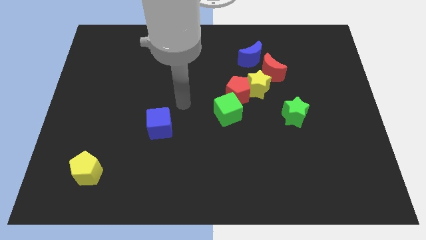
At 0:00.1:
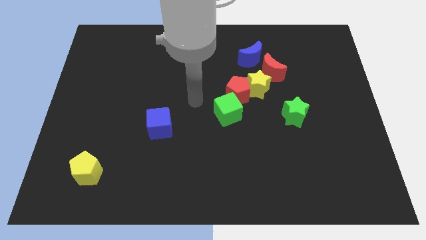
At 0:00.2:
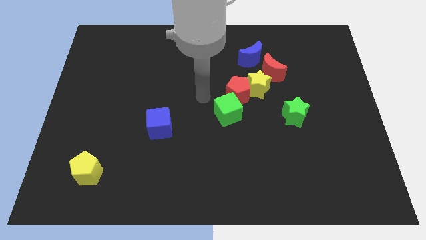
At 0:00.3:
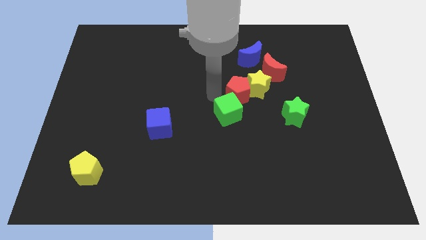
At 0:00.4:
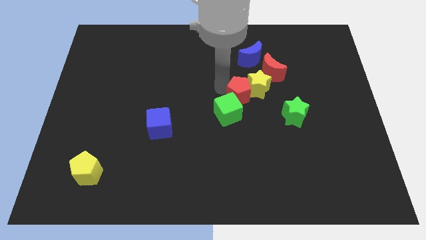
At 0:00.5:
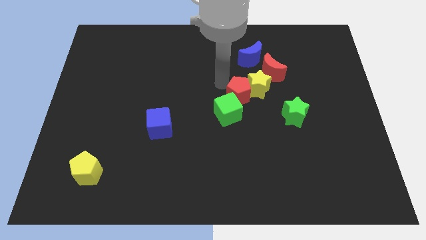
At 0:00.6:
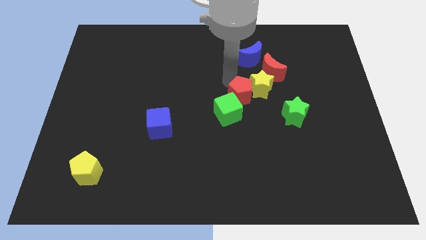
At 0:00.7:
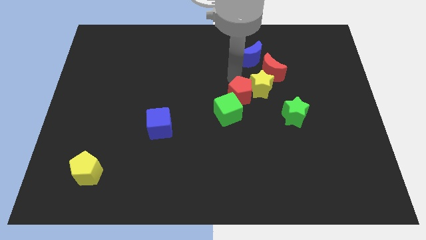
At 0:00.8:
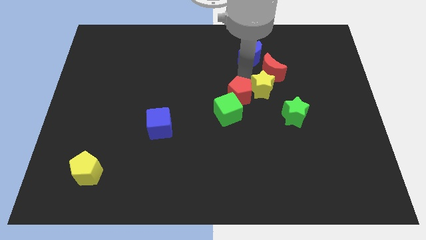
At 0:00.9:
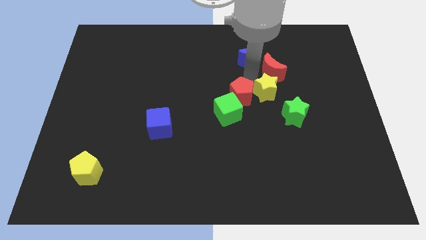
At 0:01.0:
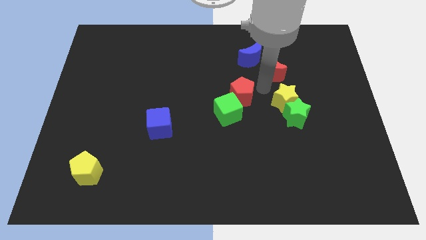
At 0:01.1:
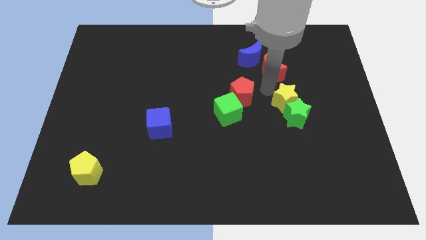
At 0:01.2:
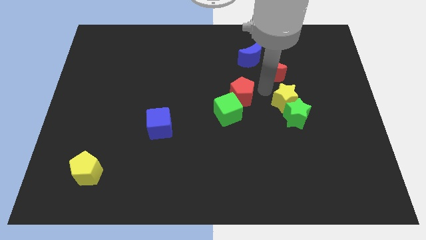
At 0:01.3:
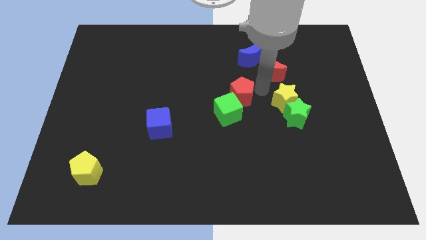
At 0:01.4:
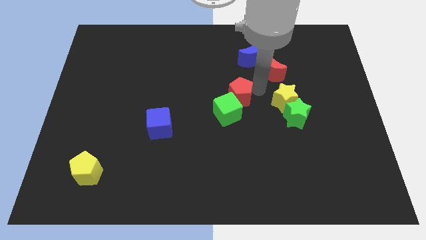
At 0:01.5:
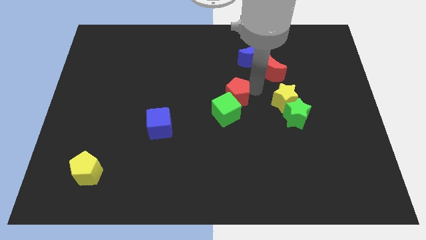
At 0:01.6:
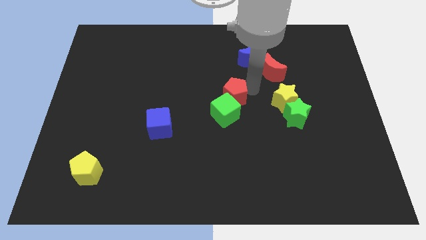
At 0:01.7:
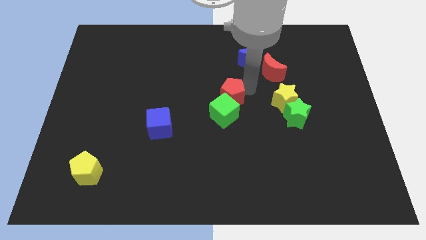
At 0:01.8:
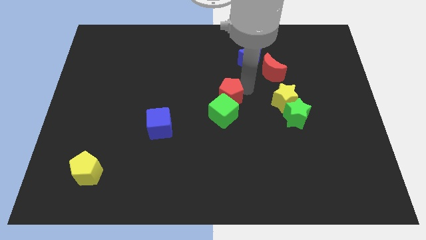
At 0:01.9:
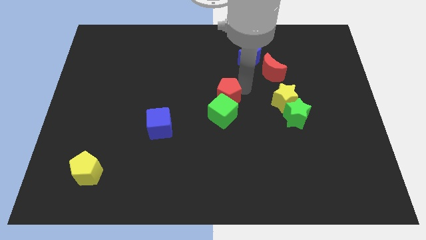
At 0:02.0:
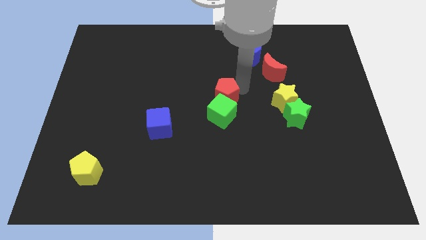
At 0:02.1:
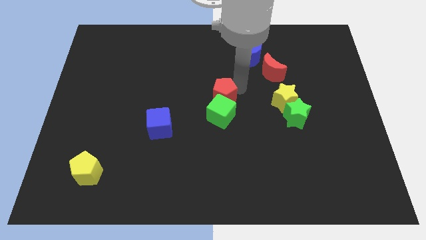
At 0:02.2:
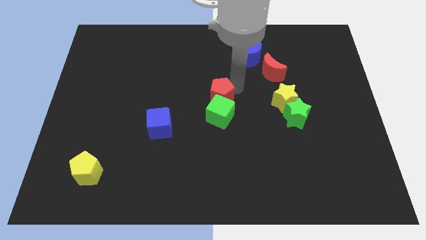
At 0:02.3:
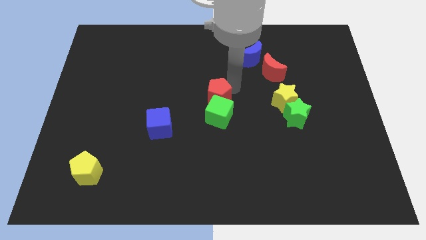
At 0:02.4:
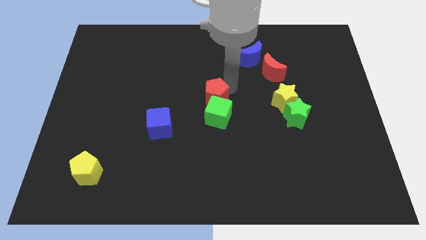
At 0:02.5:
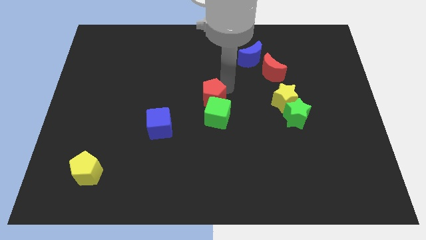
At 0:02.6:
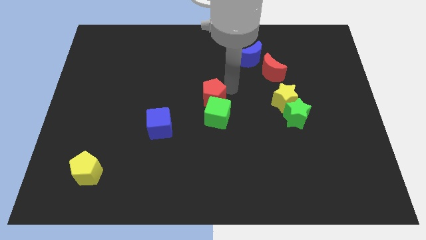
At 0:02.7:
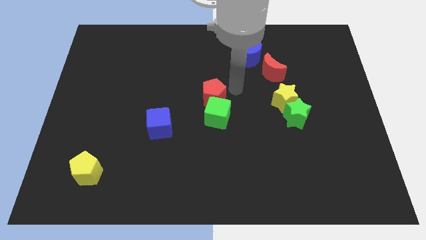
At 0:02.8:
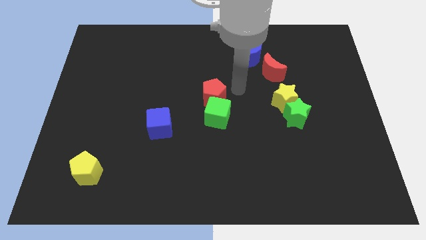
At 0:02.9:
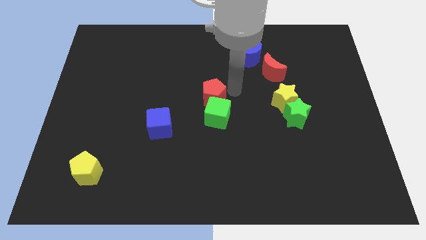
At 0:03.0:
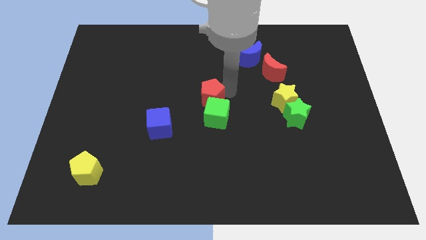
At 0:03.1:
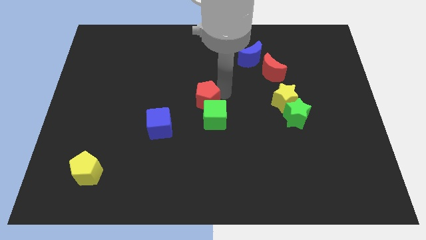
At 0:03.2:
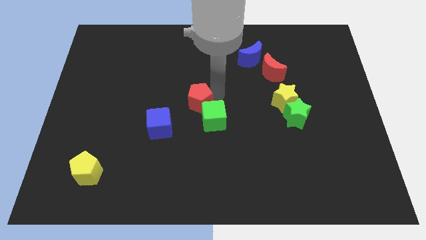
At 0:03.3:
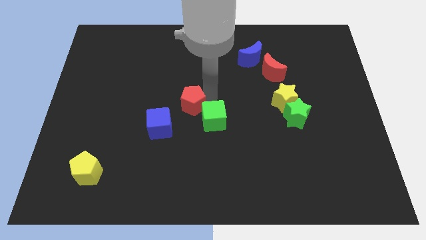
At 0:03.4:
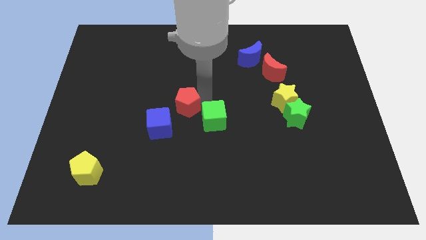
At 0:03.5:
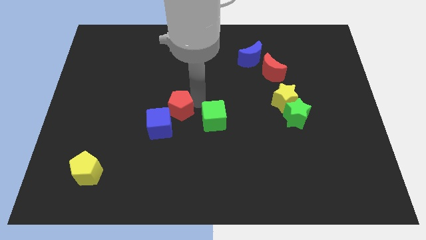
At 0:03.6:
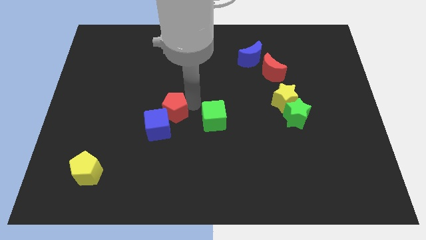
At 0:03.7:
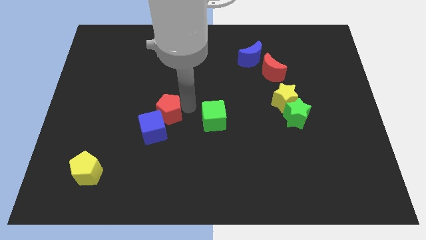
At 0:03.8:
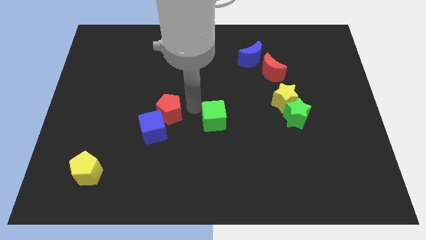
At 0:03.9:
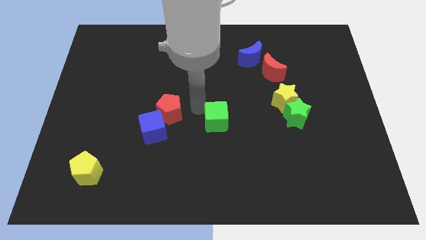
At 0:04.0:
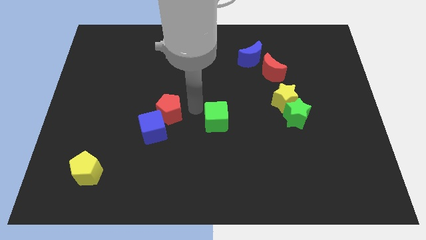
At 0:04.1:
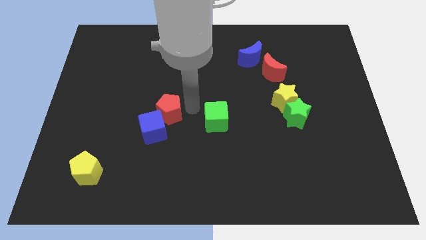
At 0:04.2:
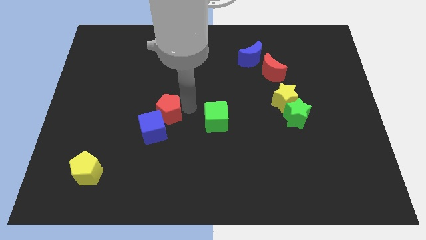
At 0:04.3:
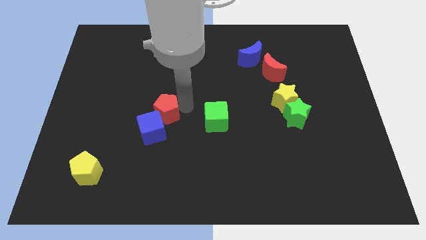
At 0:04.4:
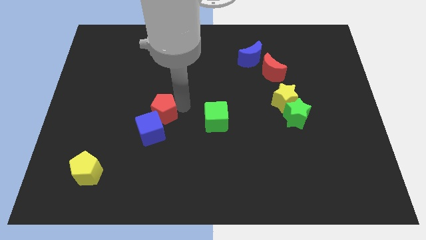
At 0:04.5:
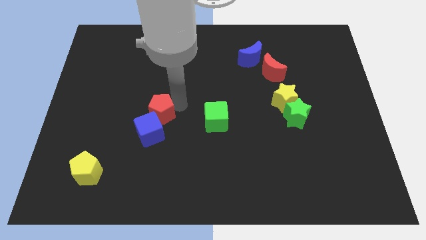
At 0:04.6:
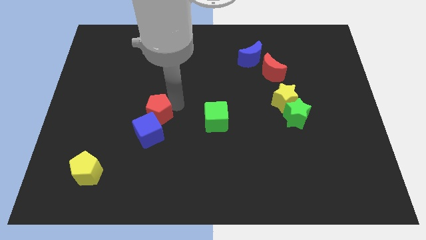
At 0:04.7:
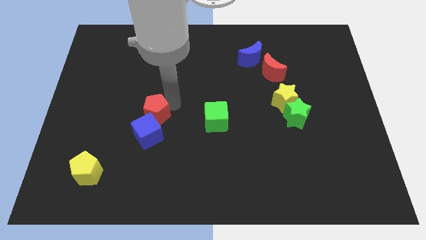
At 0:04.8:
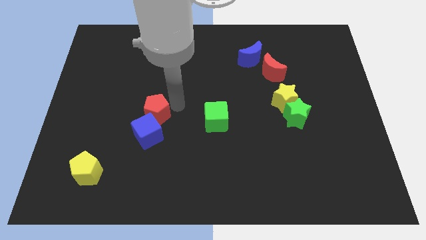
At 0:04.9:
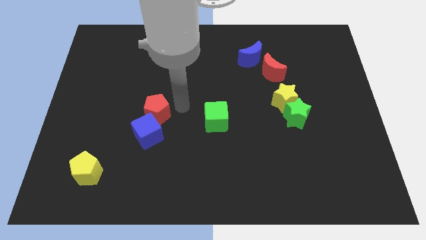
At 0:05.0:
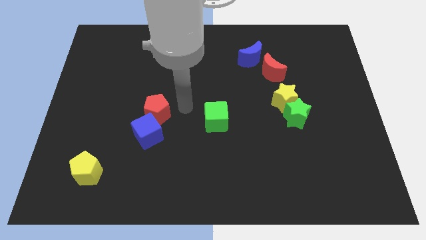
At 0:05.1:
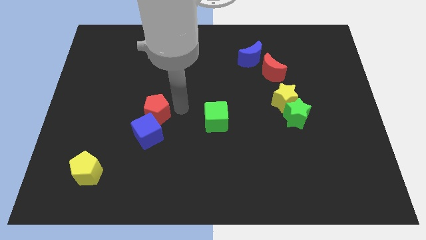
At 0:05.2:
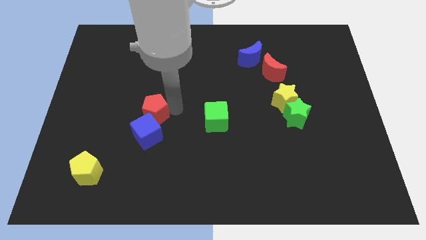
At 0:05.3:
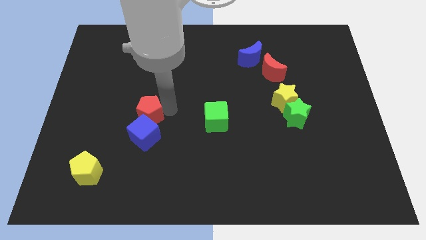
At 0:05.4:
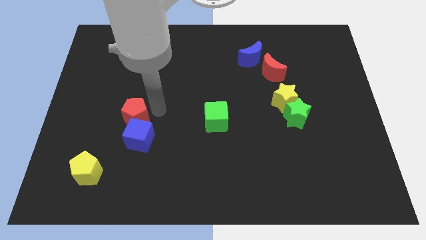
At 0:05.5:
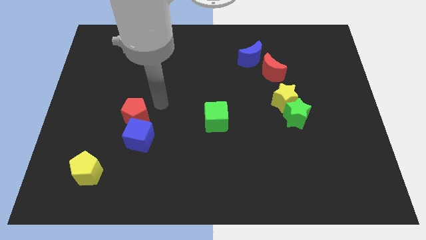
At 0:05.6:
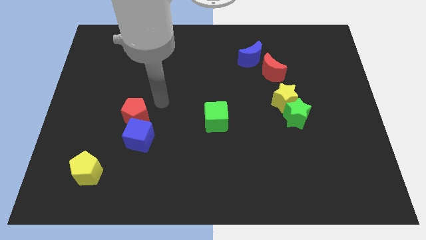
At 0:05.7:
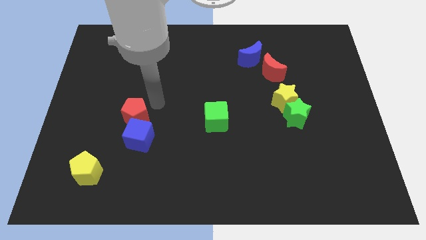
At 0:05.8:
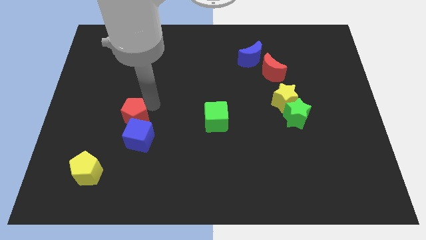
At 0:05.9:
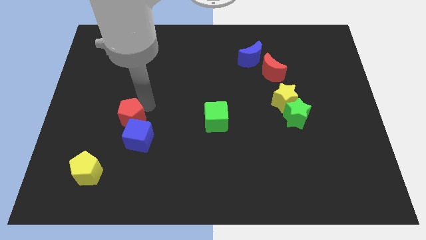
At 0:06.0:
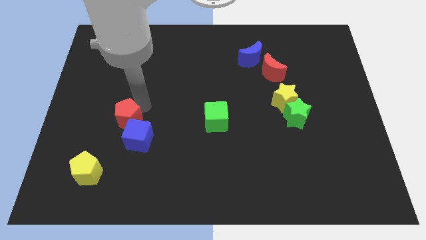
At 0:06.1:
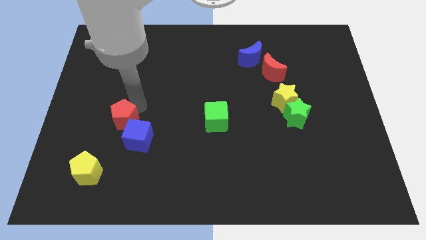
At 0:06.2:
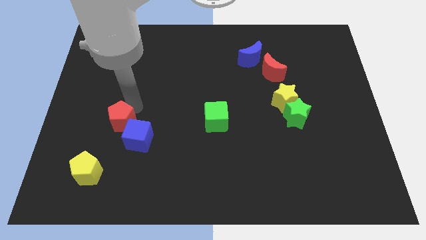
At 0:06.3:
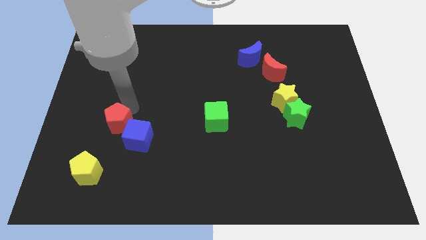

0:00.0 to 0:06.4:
put the red pentagon to the left side of the blue cube

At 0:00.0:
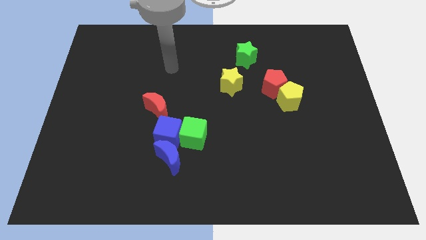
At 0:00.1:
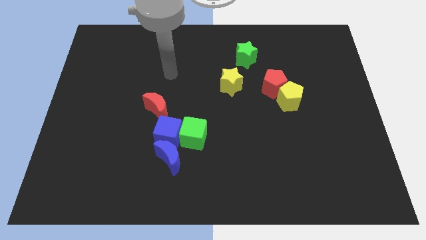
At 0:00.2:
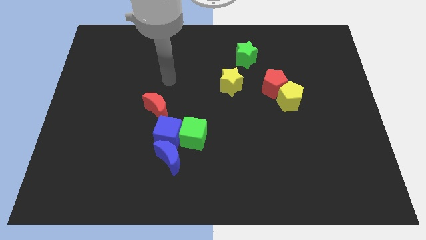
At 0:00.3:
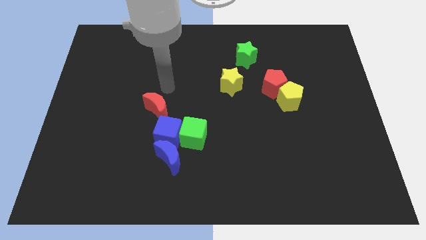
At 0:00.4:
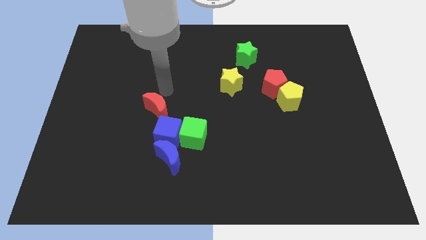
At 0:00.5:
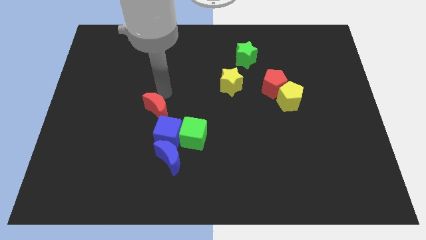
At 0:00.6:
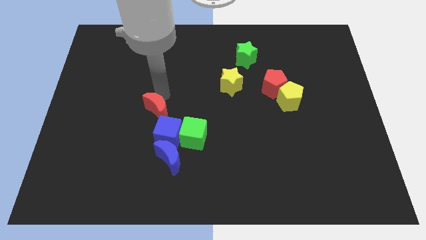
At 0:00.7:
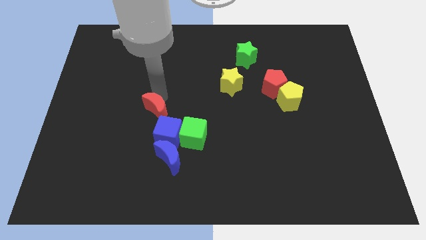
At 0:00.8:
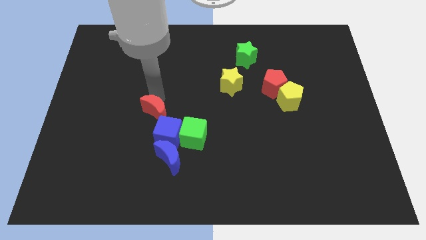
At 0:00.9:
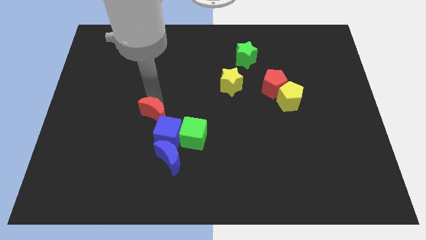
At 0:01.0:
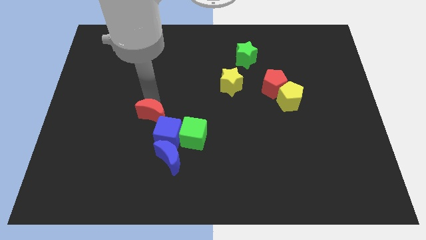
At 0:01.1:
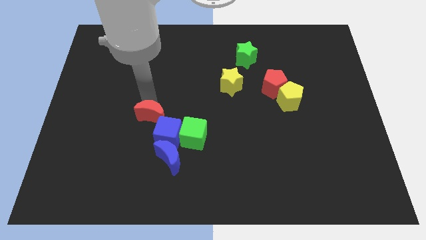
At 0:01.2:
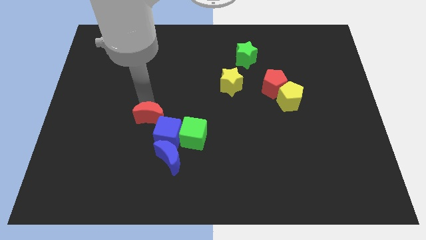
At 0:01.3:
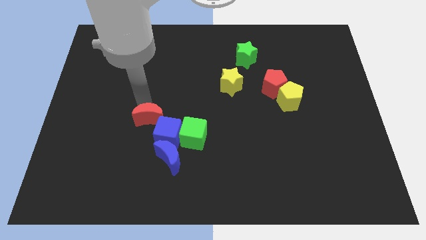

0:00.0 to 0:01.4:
move the red moon left of the green cube
